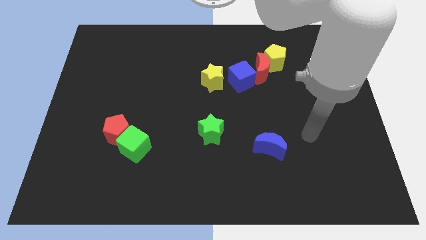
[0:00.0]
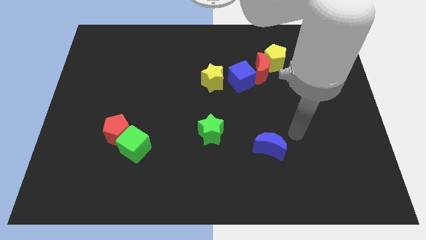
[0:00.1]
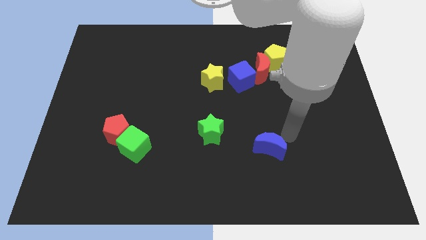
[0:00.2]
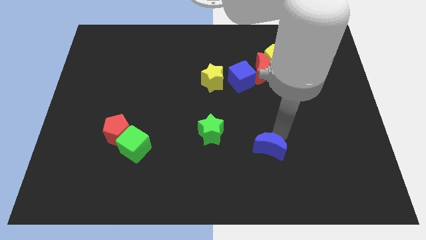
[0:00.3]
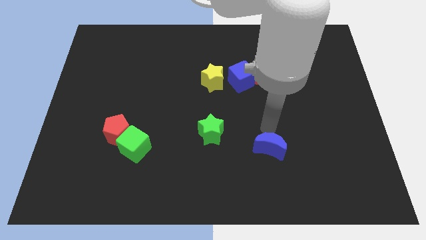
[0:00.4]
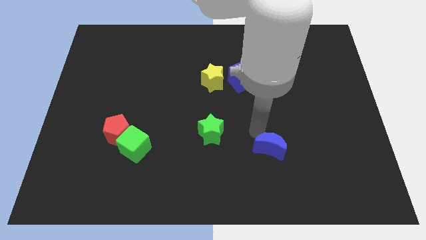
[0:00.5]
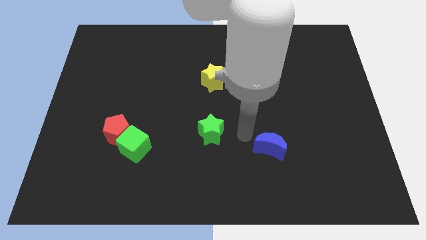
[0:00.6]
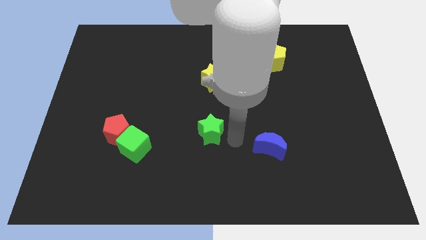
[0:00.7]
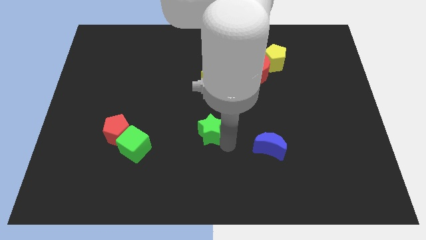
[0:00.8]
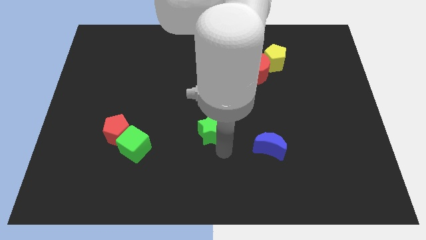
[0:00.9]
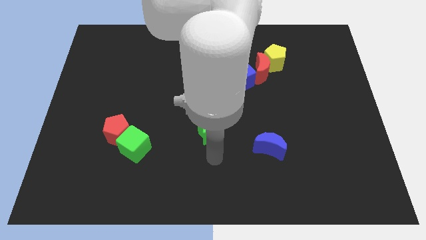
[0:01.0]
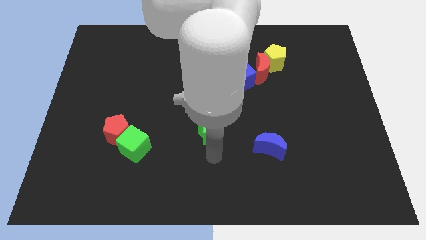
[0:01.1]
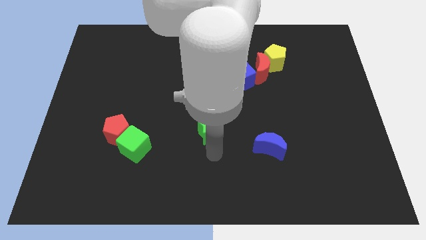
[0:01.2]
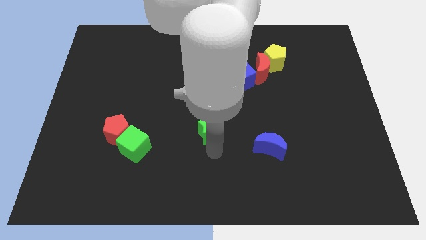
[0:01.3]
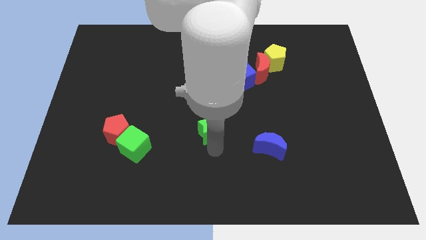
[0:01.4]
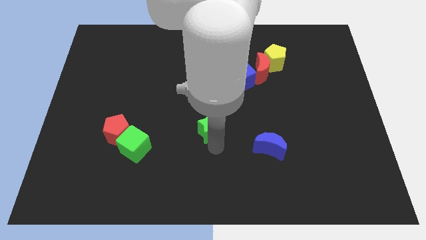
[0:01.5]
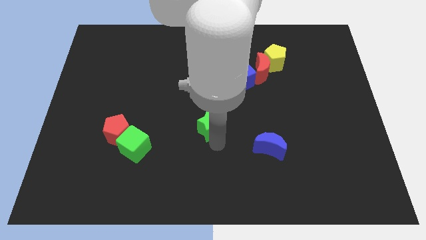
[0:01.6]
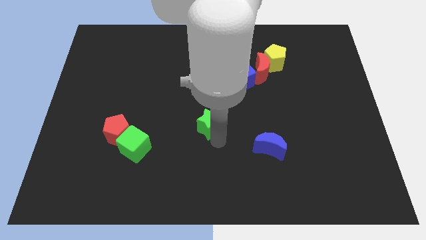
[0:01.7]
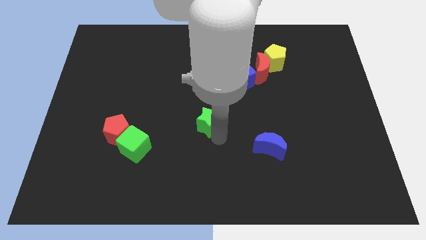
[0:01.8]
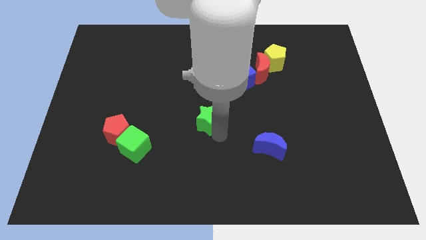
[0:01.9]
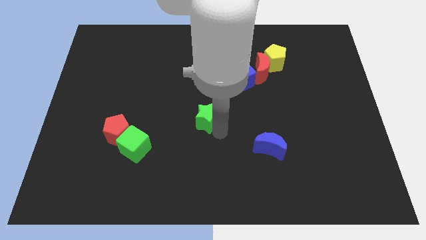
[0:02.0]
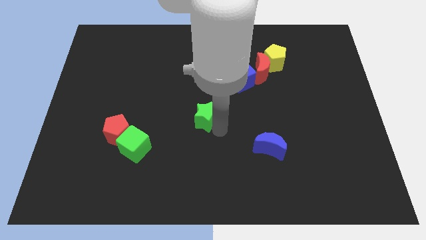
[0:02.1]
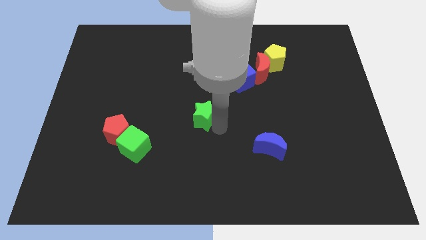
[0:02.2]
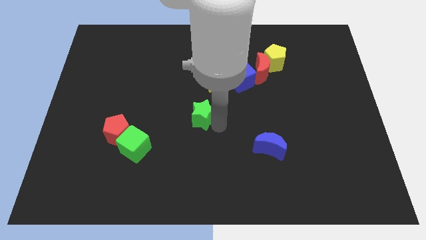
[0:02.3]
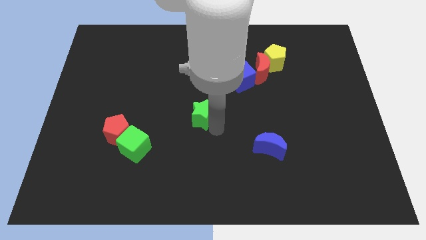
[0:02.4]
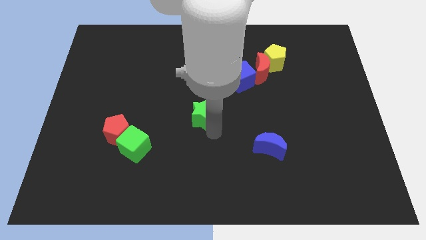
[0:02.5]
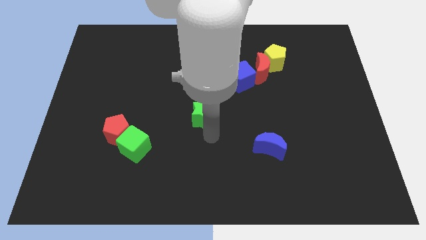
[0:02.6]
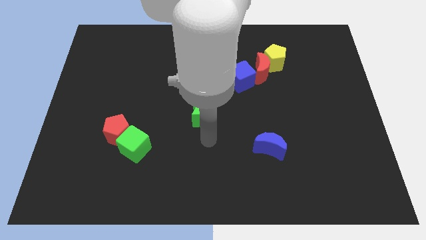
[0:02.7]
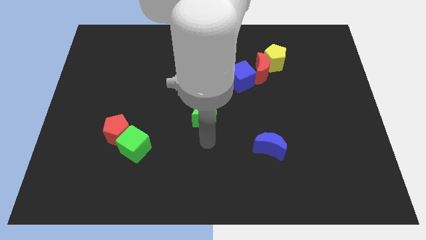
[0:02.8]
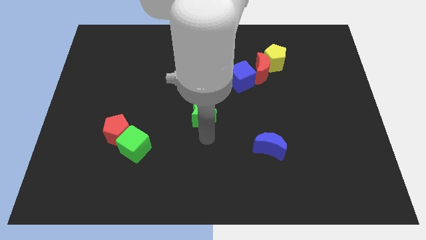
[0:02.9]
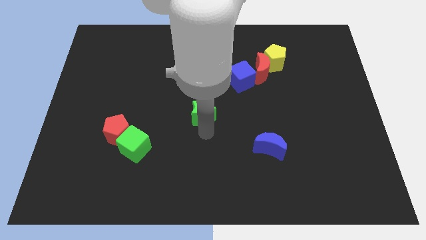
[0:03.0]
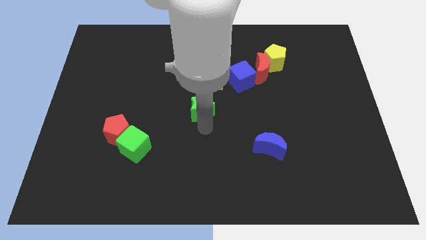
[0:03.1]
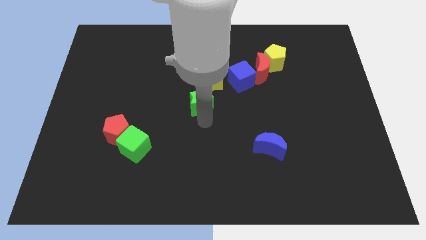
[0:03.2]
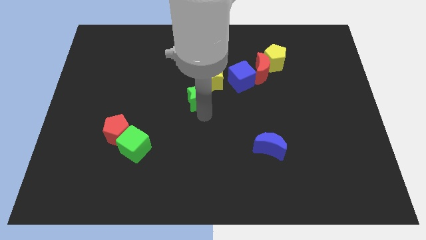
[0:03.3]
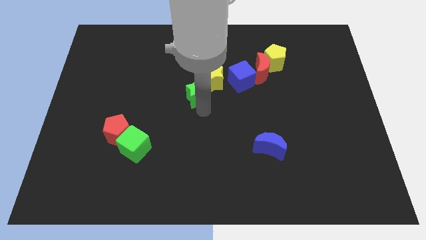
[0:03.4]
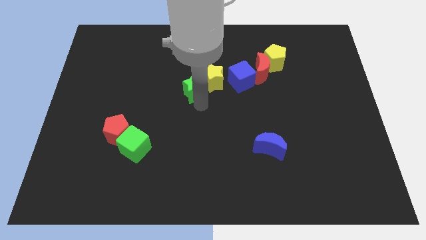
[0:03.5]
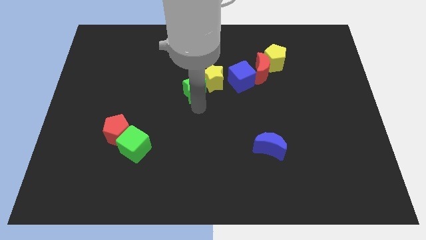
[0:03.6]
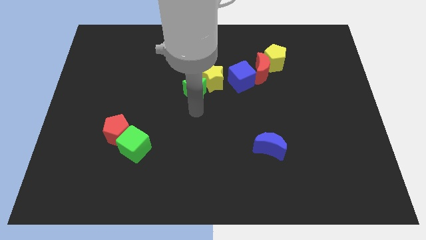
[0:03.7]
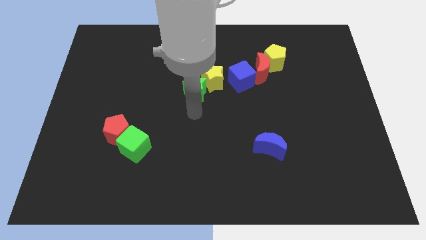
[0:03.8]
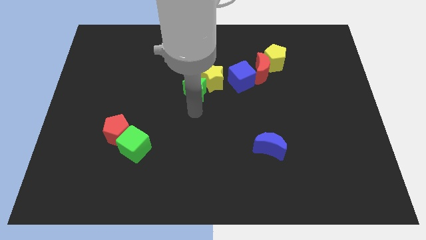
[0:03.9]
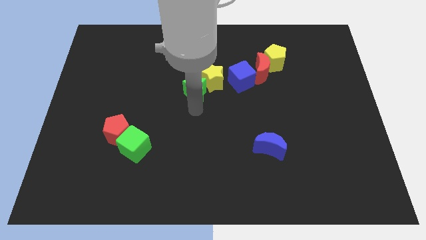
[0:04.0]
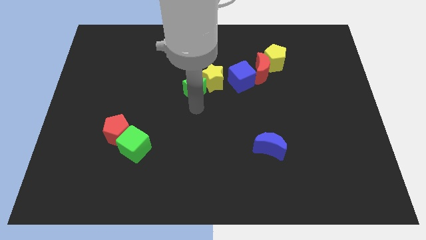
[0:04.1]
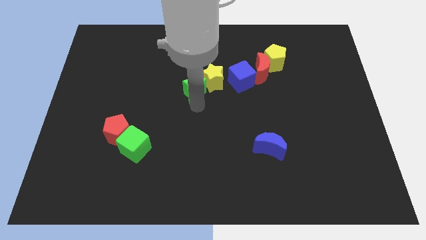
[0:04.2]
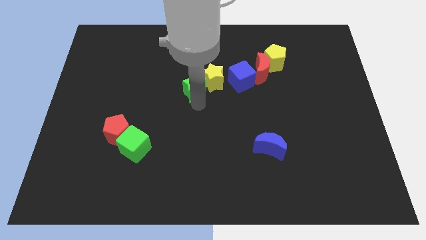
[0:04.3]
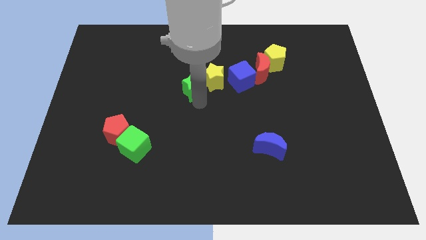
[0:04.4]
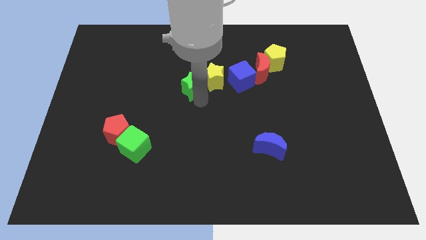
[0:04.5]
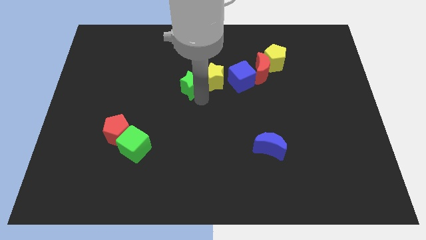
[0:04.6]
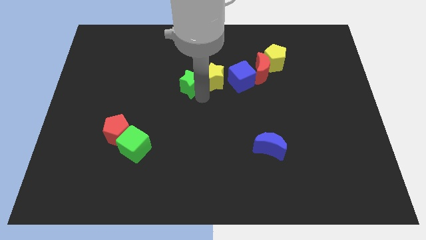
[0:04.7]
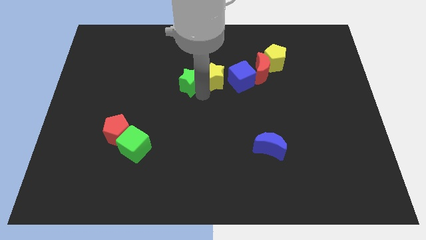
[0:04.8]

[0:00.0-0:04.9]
slide the green star diagonally up and to the left of the yellow star

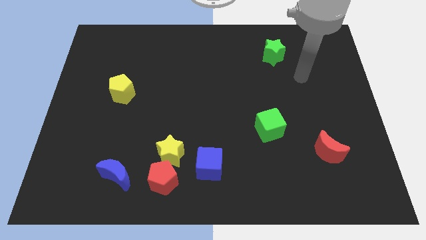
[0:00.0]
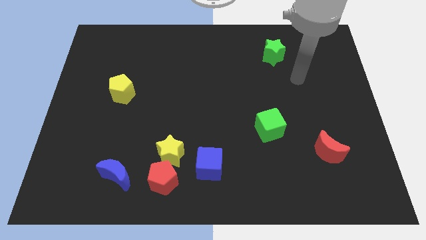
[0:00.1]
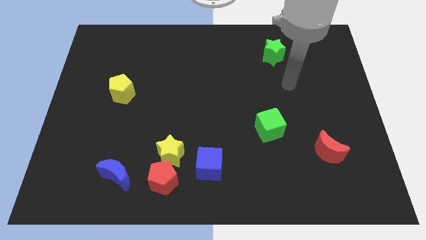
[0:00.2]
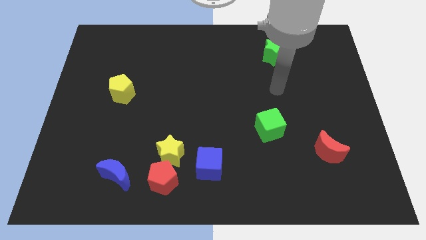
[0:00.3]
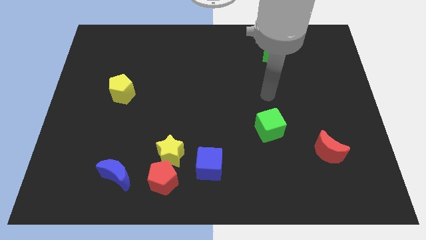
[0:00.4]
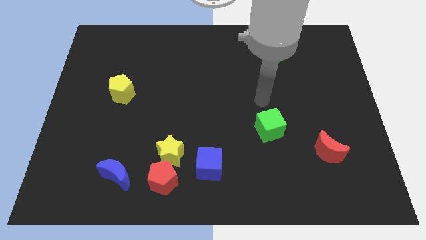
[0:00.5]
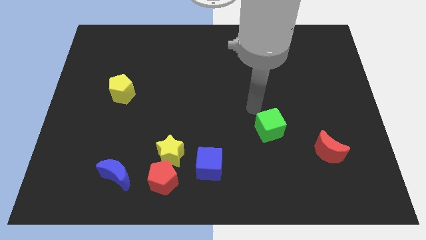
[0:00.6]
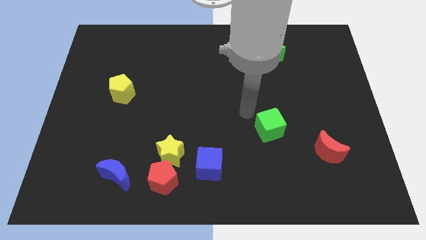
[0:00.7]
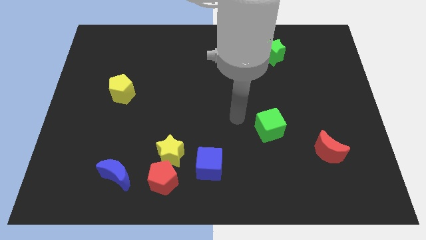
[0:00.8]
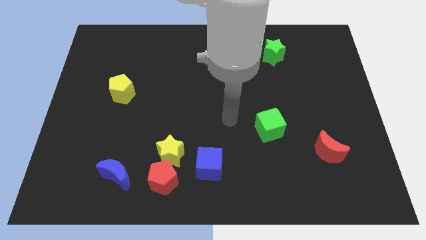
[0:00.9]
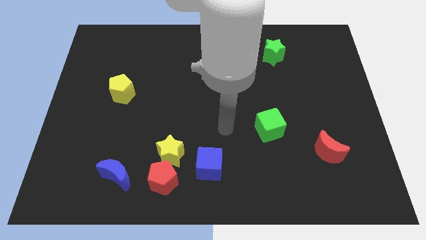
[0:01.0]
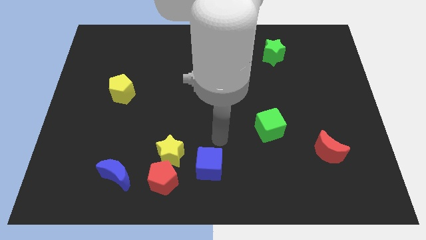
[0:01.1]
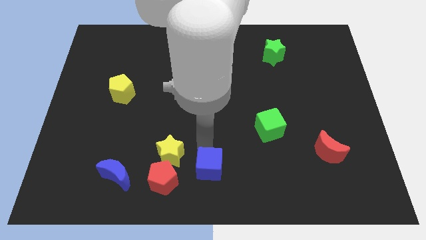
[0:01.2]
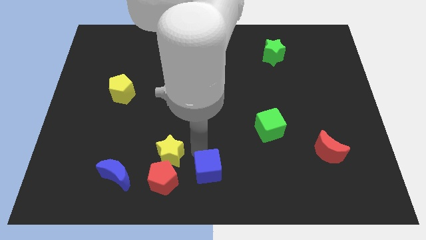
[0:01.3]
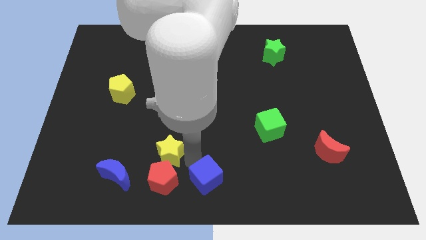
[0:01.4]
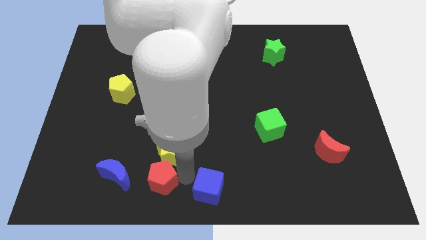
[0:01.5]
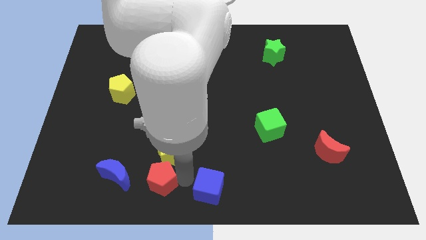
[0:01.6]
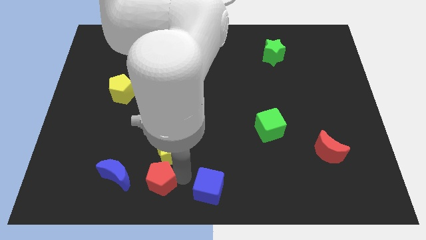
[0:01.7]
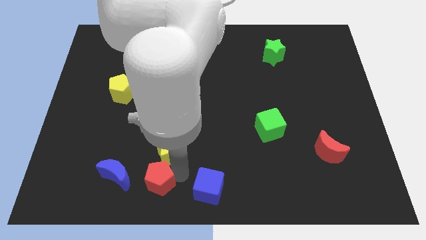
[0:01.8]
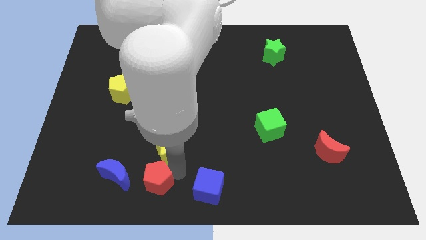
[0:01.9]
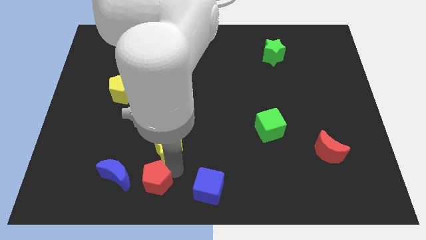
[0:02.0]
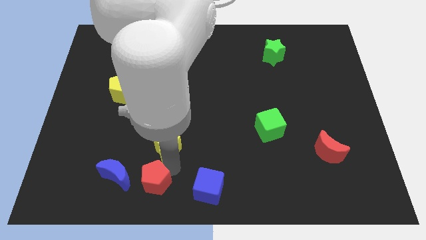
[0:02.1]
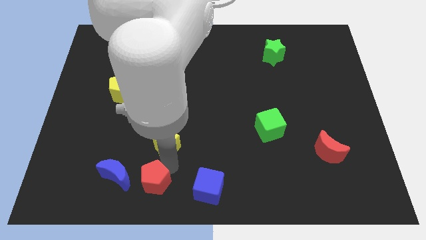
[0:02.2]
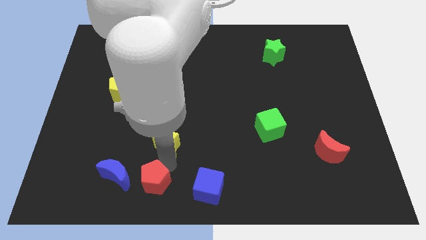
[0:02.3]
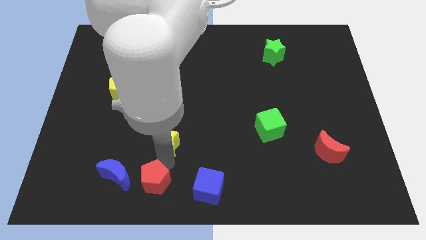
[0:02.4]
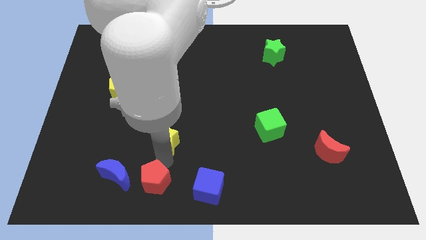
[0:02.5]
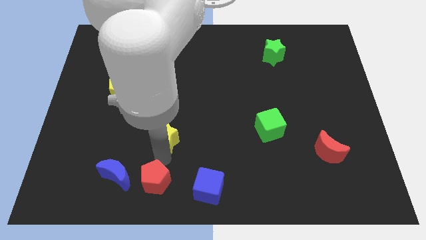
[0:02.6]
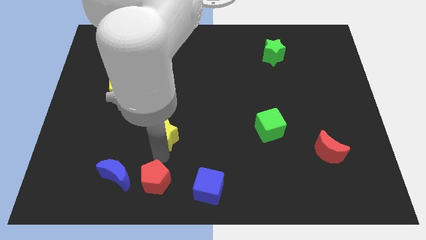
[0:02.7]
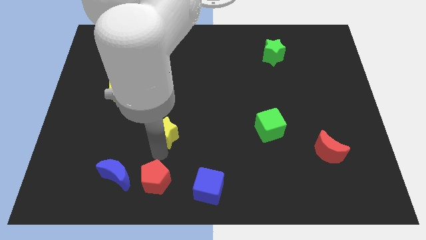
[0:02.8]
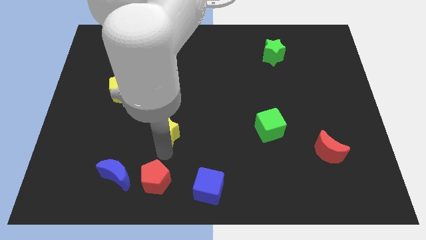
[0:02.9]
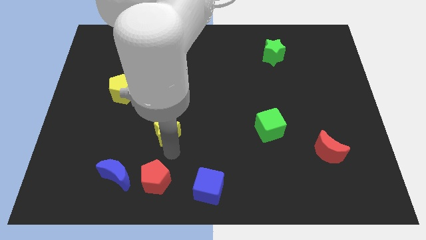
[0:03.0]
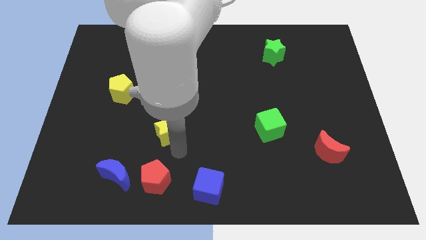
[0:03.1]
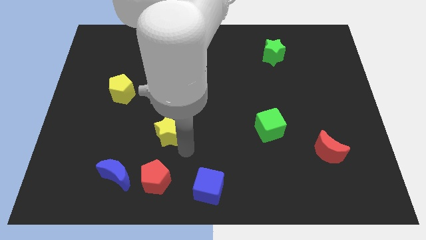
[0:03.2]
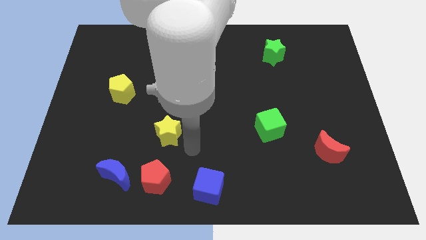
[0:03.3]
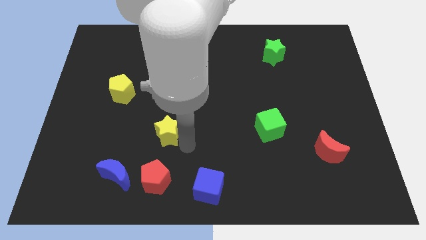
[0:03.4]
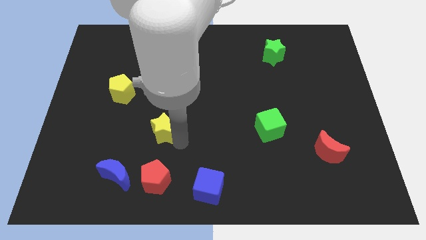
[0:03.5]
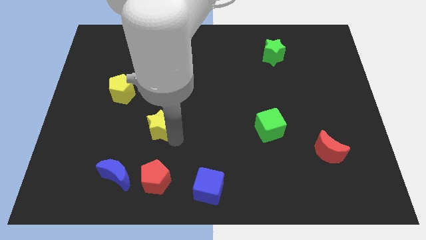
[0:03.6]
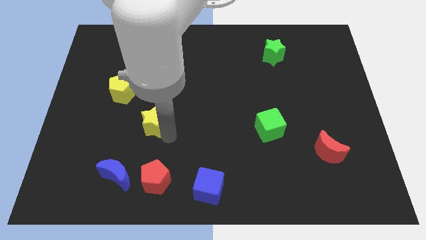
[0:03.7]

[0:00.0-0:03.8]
put the yellow star diagonally down and to the right of the yellow pentagon
